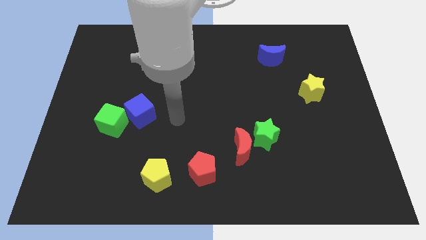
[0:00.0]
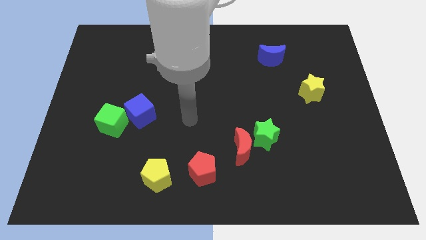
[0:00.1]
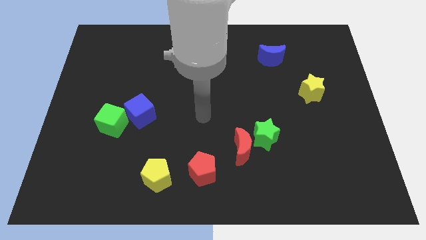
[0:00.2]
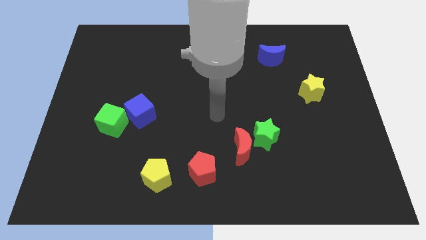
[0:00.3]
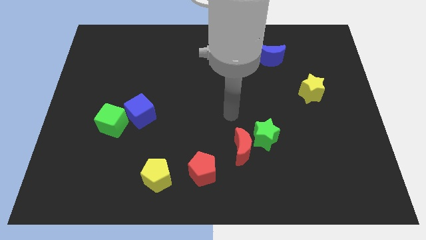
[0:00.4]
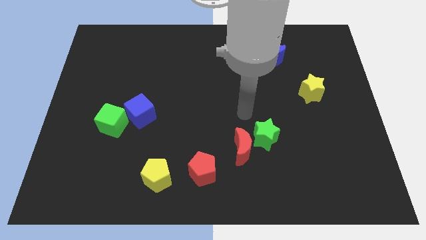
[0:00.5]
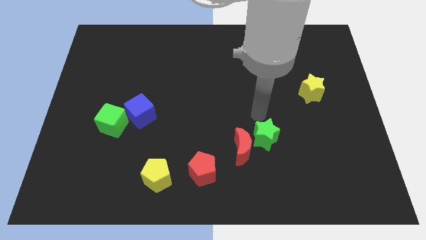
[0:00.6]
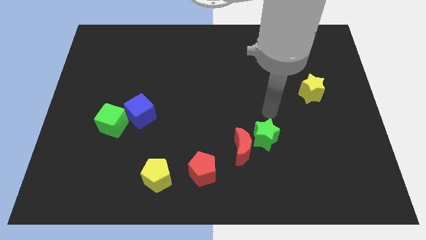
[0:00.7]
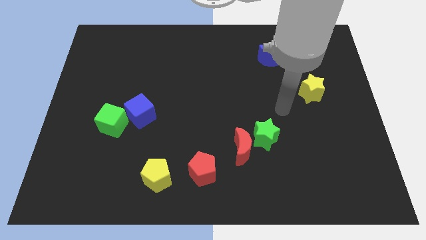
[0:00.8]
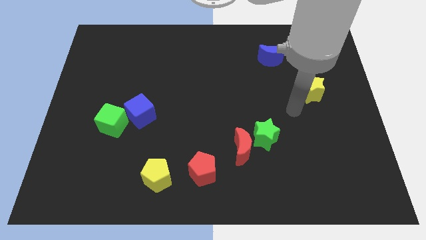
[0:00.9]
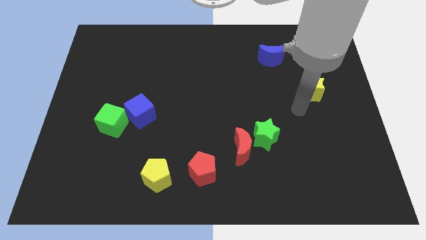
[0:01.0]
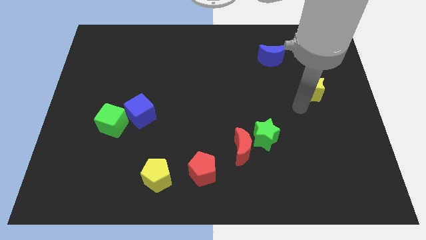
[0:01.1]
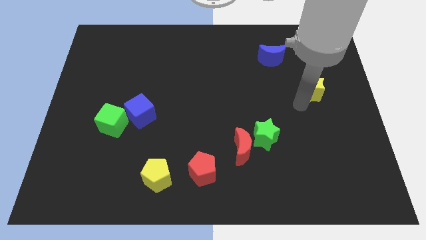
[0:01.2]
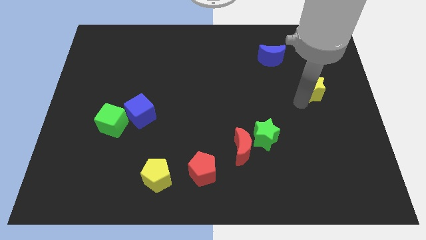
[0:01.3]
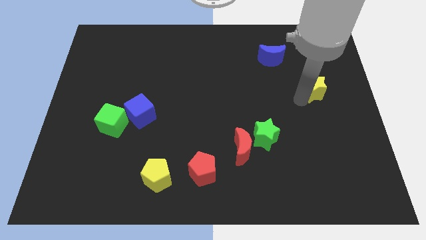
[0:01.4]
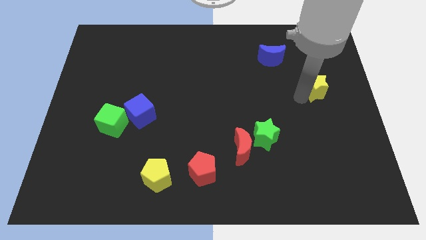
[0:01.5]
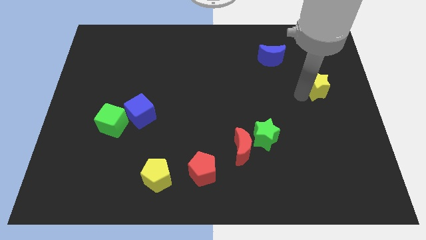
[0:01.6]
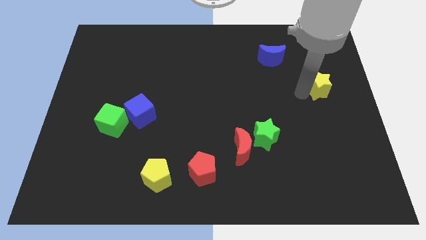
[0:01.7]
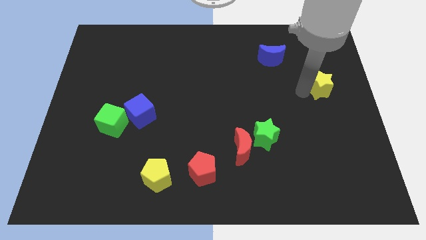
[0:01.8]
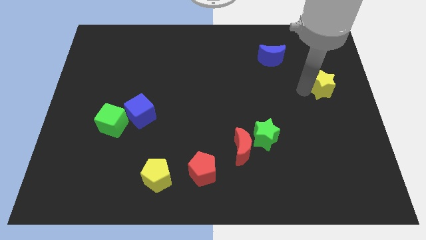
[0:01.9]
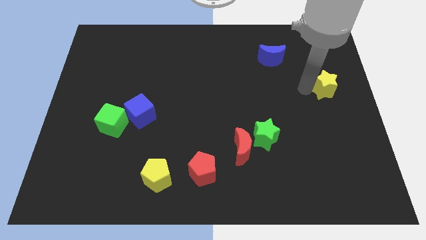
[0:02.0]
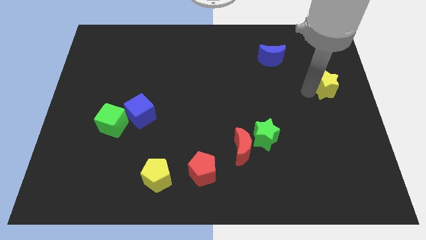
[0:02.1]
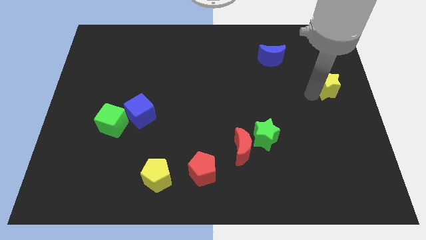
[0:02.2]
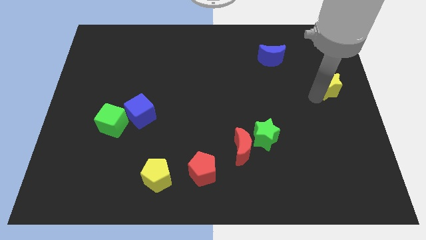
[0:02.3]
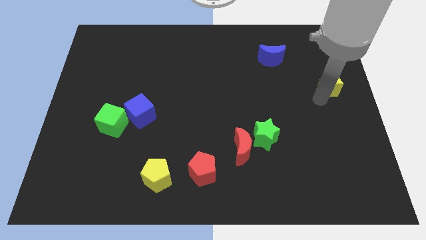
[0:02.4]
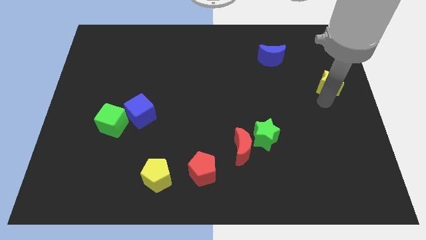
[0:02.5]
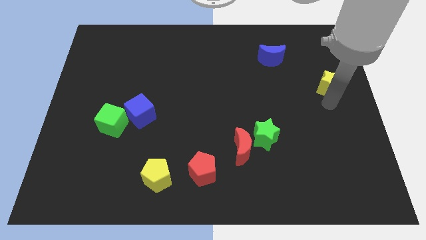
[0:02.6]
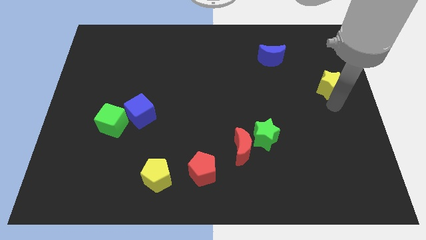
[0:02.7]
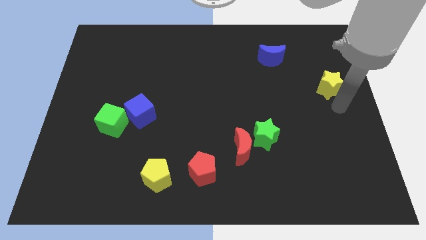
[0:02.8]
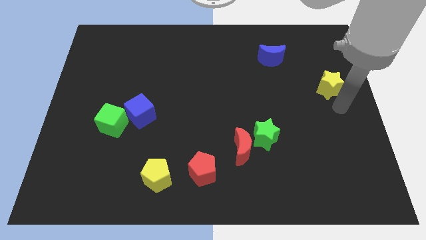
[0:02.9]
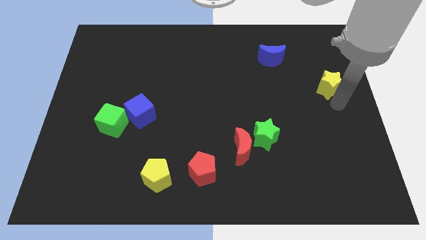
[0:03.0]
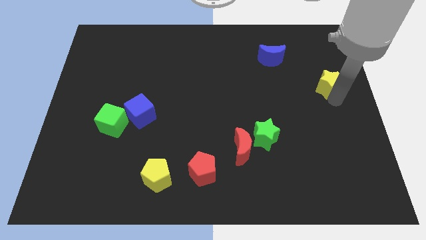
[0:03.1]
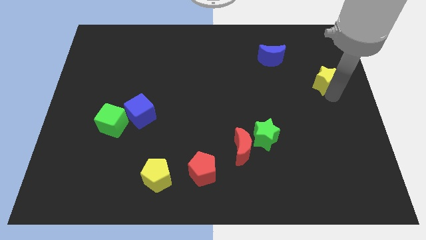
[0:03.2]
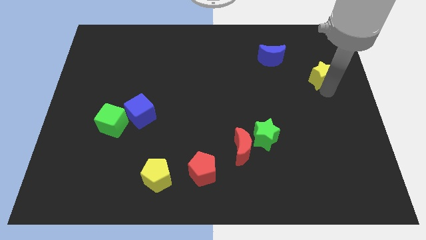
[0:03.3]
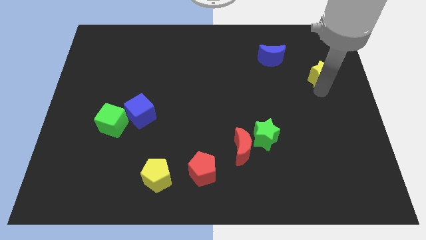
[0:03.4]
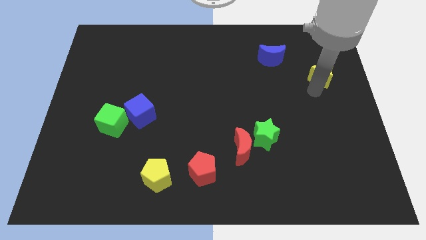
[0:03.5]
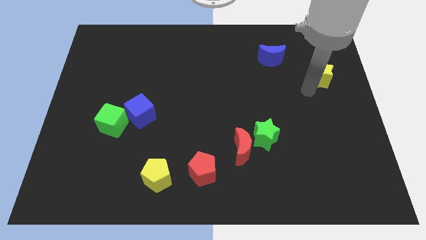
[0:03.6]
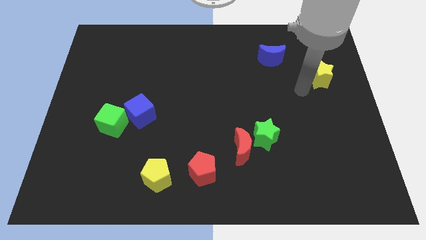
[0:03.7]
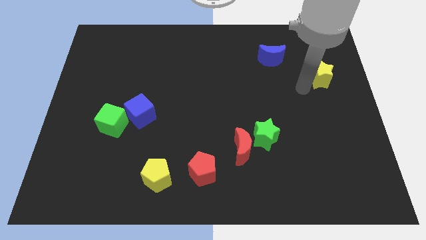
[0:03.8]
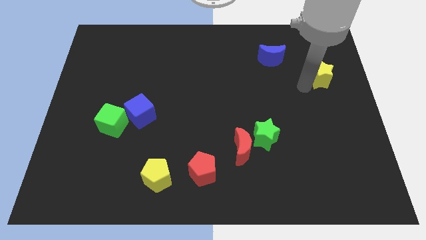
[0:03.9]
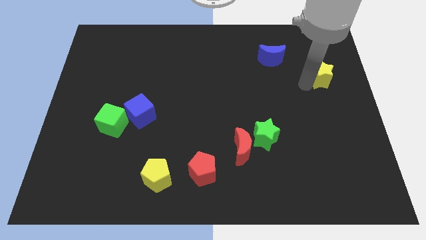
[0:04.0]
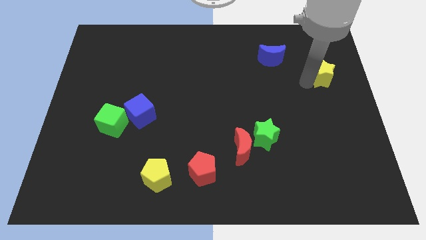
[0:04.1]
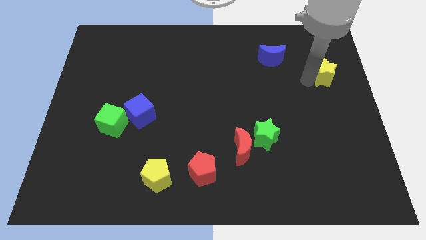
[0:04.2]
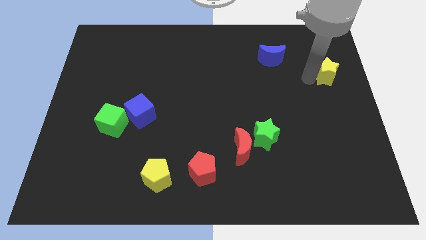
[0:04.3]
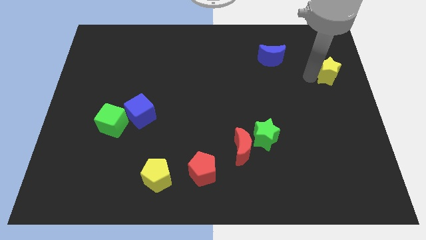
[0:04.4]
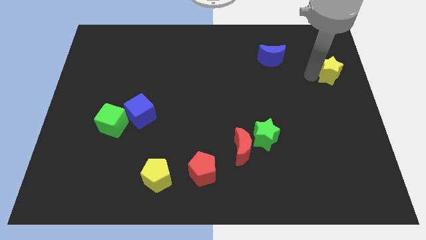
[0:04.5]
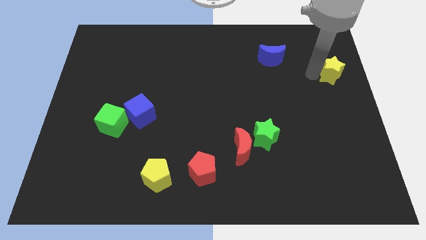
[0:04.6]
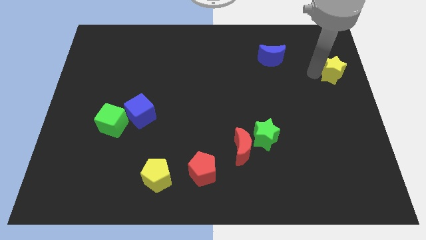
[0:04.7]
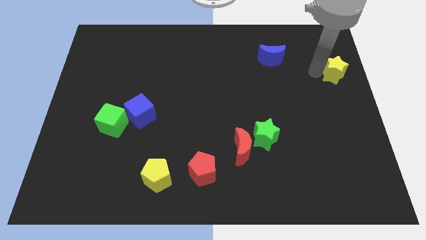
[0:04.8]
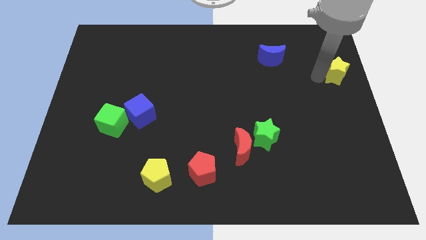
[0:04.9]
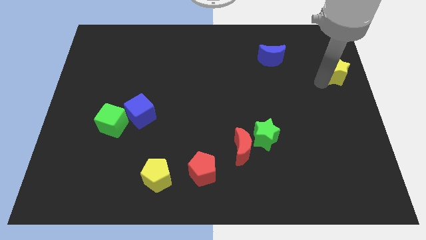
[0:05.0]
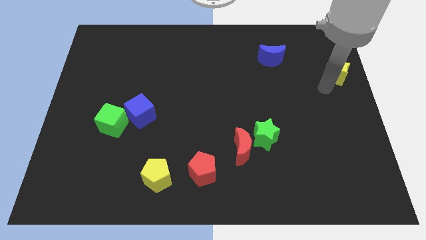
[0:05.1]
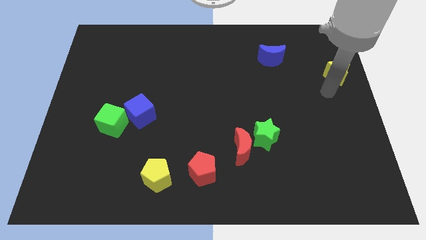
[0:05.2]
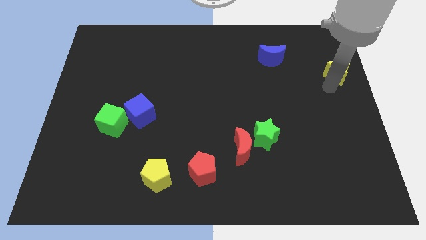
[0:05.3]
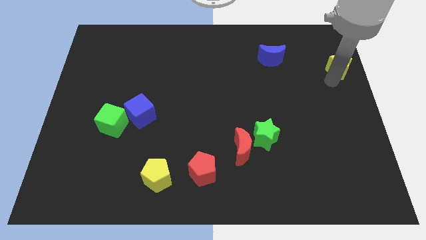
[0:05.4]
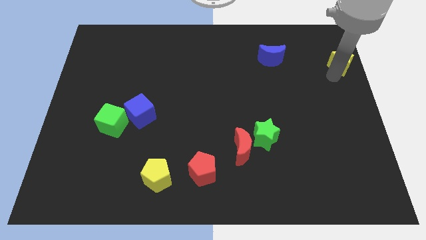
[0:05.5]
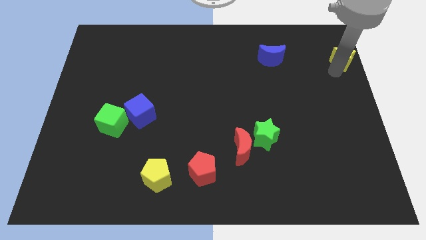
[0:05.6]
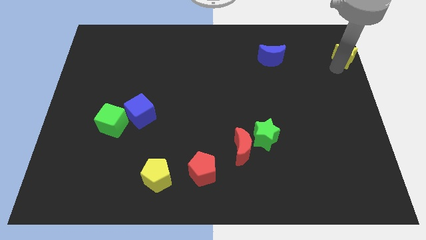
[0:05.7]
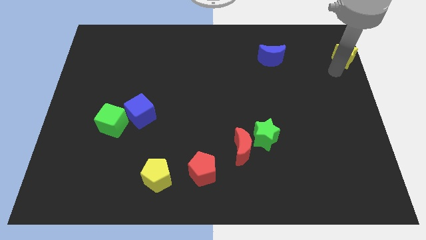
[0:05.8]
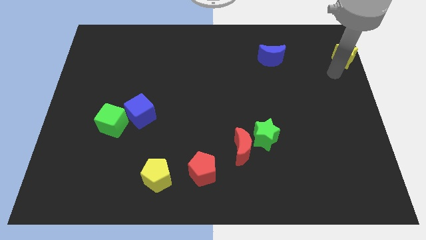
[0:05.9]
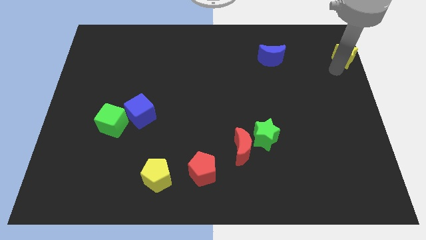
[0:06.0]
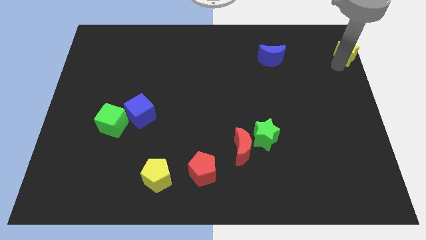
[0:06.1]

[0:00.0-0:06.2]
push the yellow star to the top right of the board
